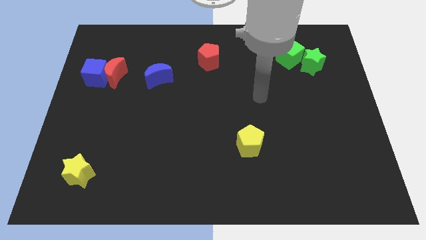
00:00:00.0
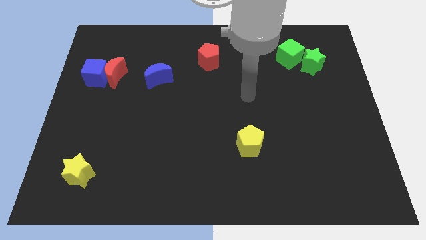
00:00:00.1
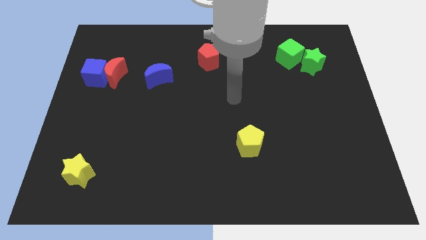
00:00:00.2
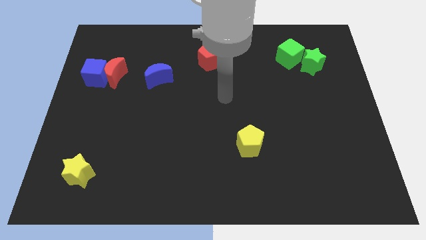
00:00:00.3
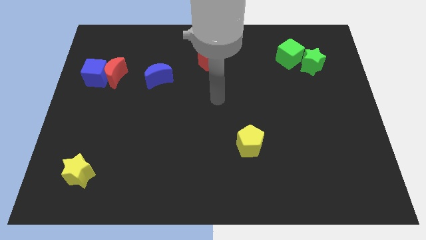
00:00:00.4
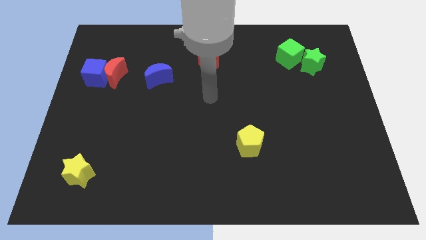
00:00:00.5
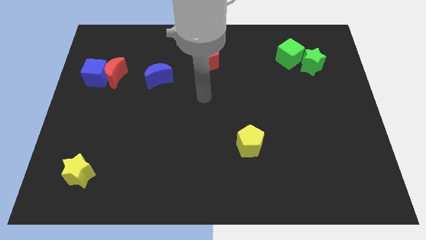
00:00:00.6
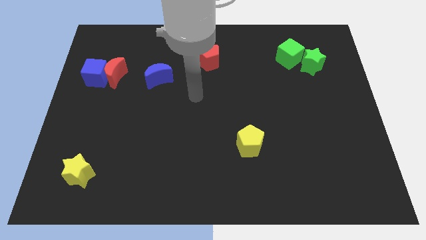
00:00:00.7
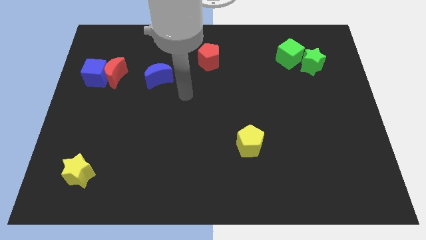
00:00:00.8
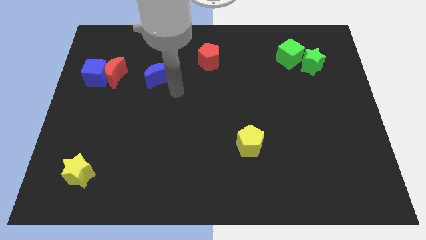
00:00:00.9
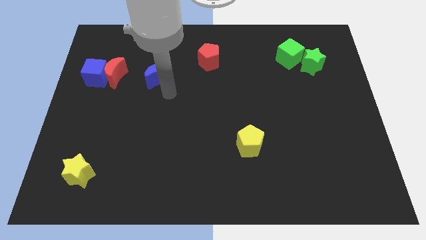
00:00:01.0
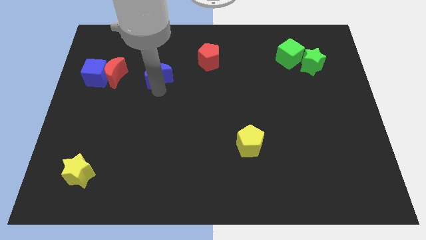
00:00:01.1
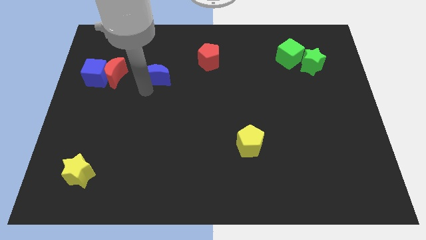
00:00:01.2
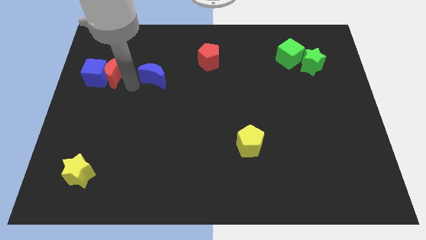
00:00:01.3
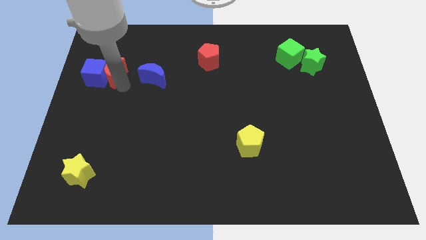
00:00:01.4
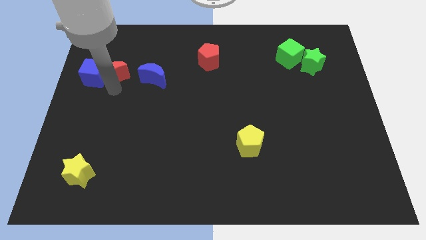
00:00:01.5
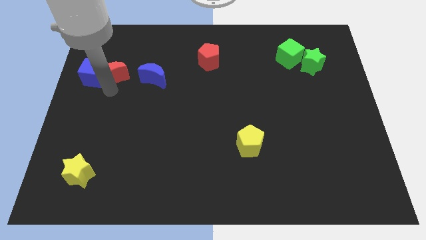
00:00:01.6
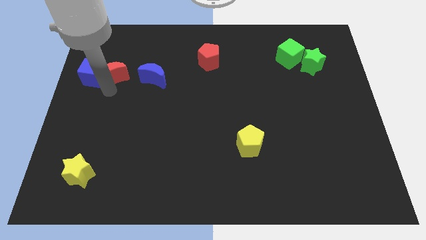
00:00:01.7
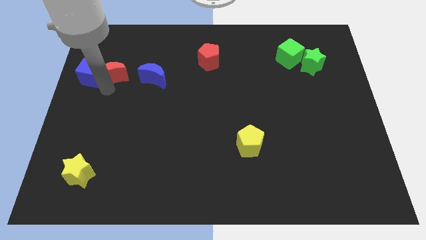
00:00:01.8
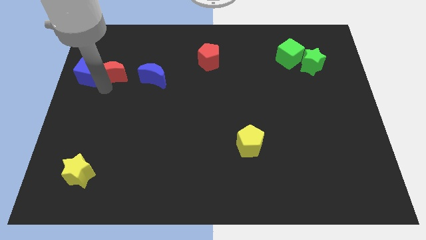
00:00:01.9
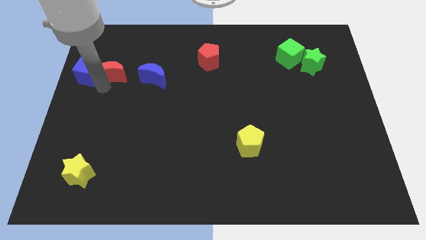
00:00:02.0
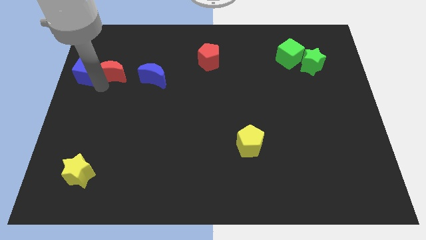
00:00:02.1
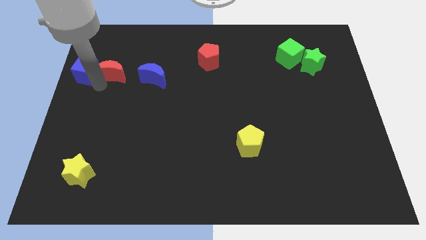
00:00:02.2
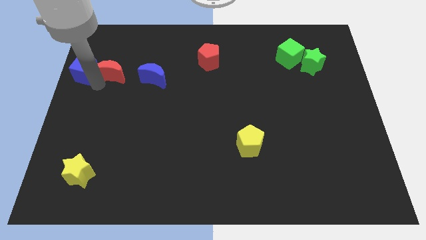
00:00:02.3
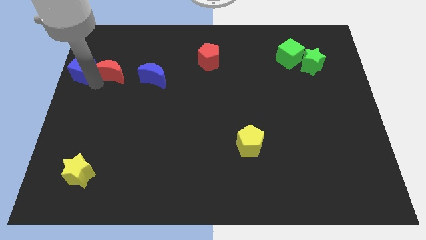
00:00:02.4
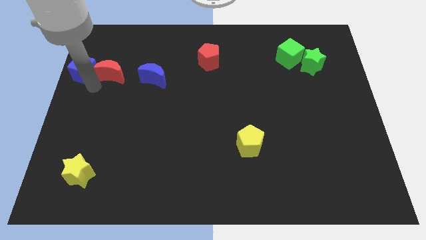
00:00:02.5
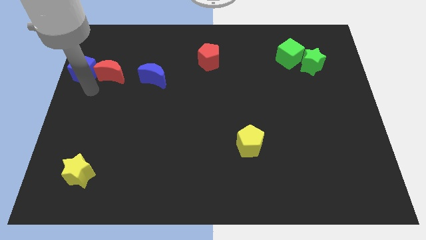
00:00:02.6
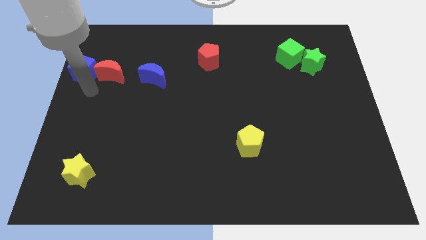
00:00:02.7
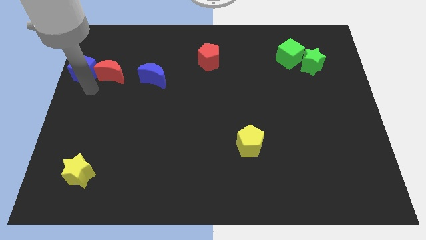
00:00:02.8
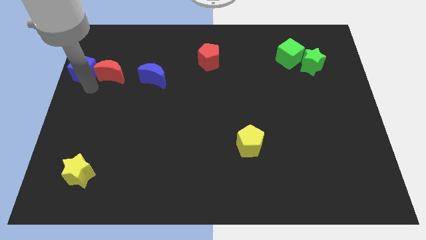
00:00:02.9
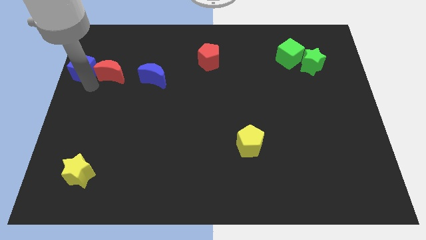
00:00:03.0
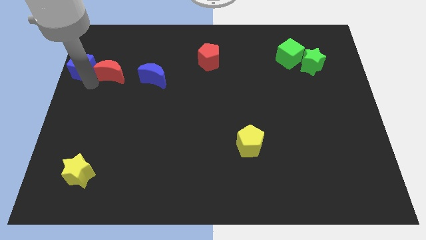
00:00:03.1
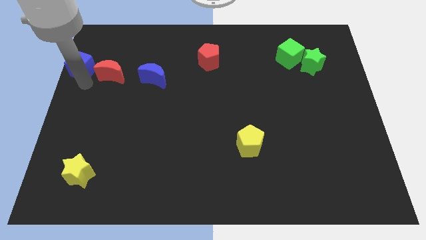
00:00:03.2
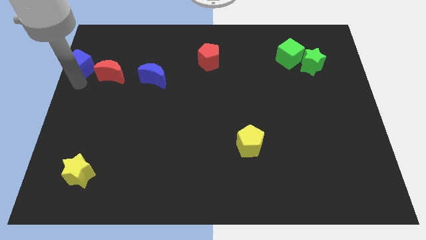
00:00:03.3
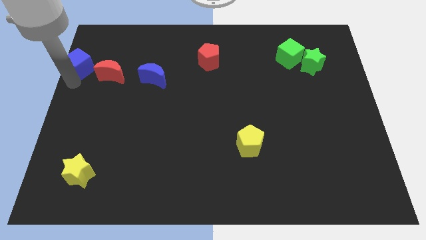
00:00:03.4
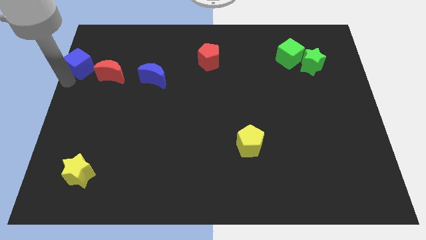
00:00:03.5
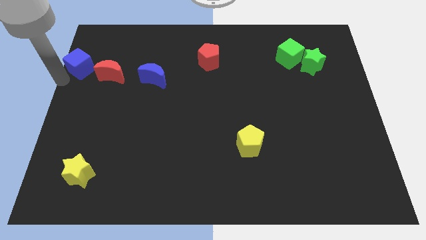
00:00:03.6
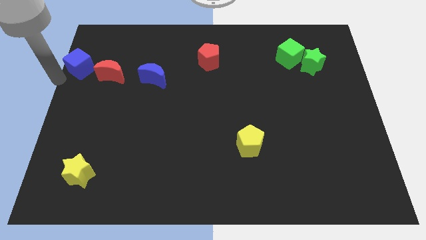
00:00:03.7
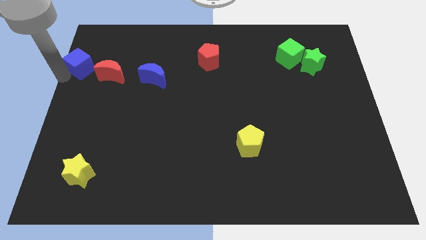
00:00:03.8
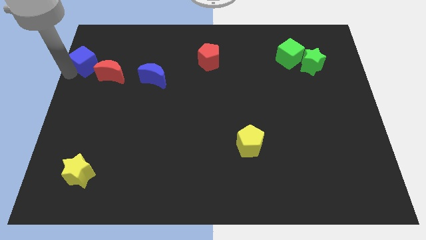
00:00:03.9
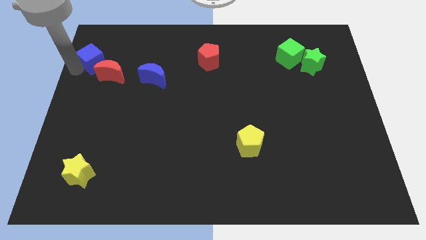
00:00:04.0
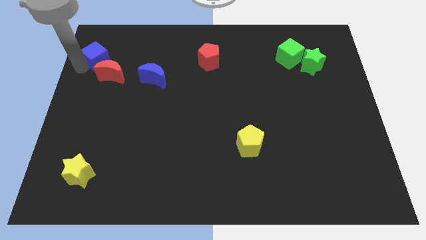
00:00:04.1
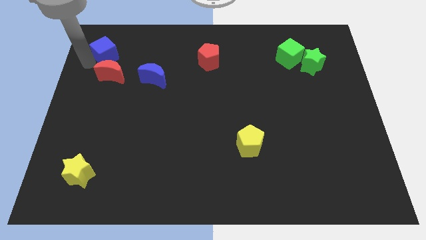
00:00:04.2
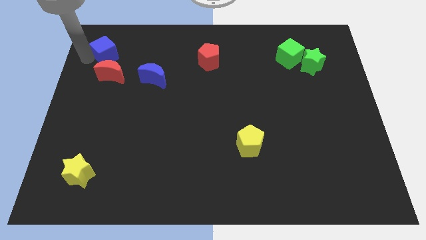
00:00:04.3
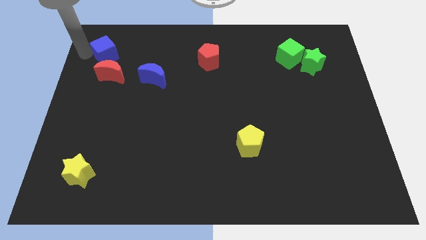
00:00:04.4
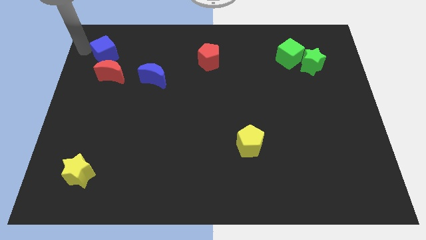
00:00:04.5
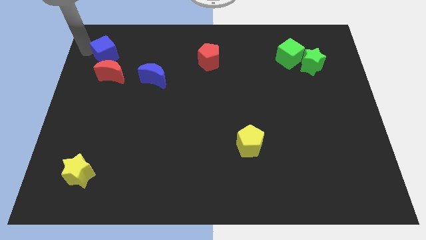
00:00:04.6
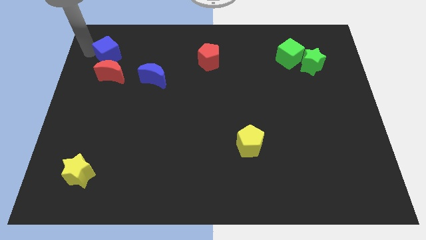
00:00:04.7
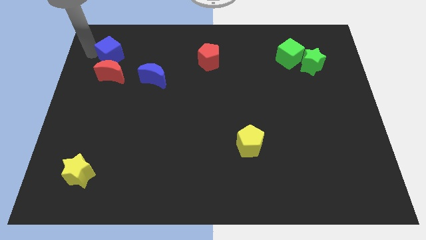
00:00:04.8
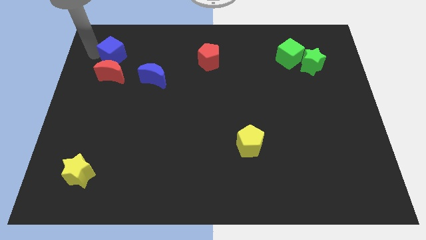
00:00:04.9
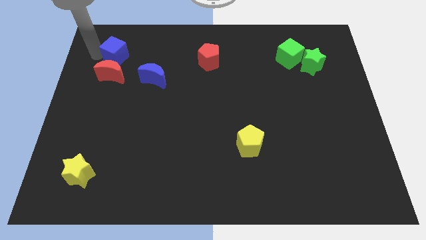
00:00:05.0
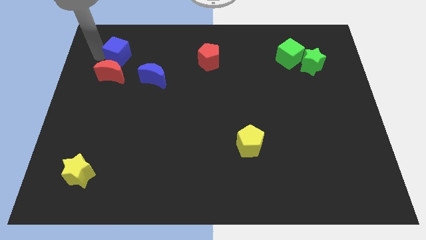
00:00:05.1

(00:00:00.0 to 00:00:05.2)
put the blue cube diagonally up and to the right of the red moon

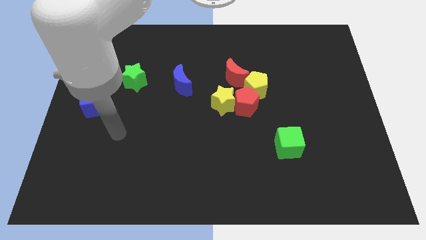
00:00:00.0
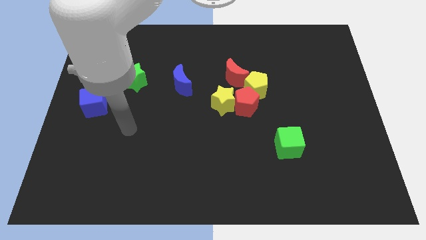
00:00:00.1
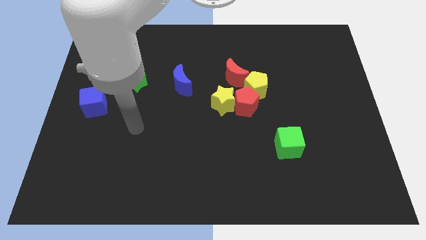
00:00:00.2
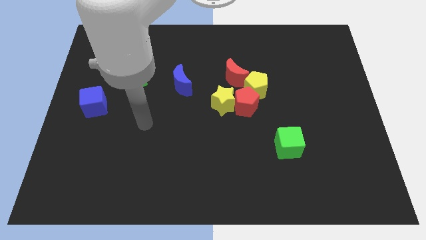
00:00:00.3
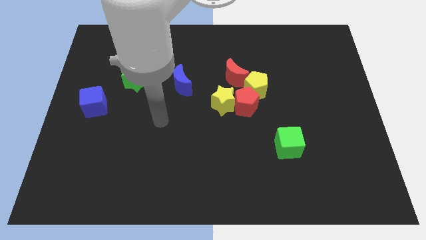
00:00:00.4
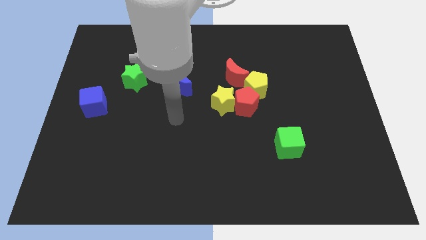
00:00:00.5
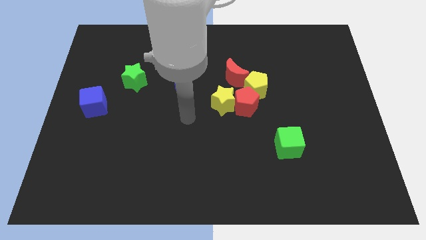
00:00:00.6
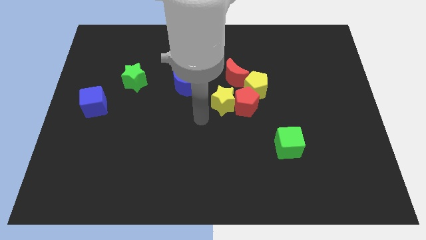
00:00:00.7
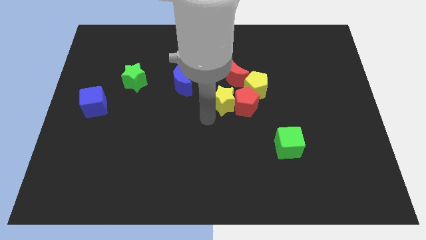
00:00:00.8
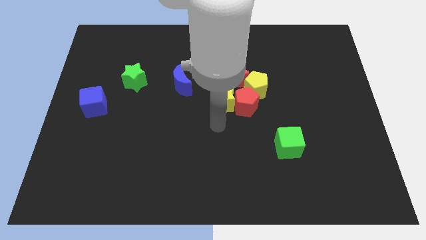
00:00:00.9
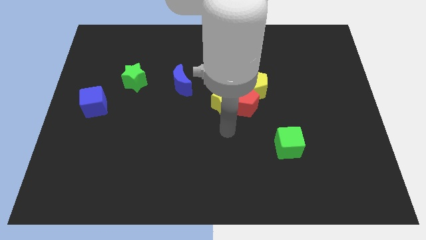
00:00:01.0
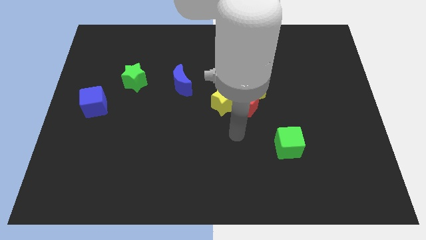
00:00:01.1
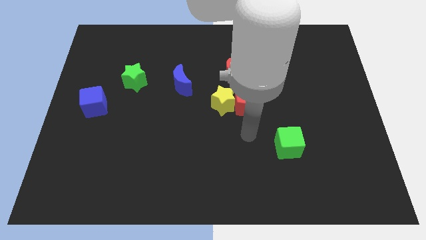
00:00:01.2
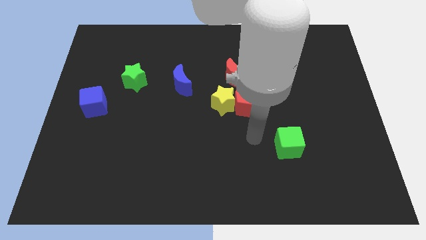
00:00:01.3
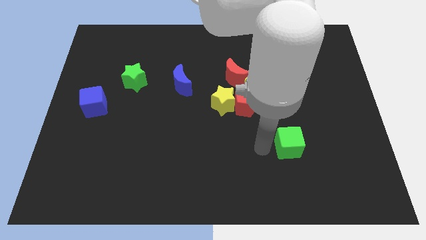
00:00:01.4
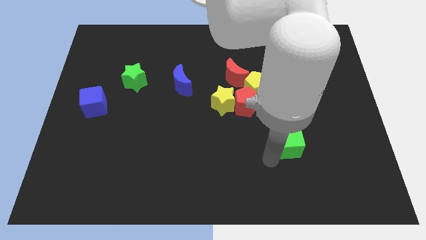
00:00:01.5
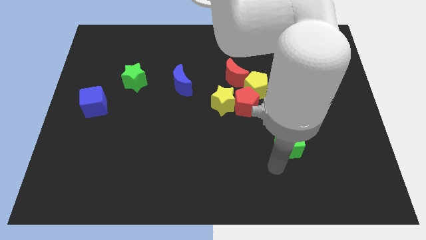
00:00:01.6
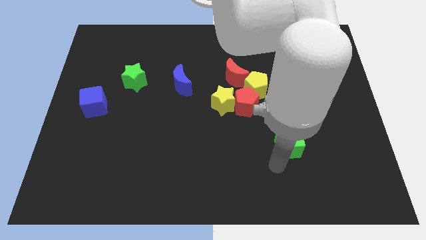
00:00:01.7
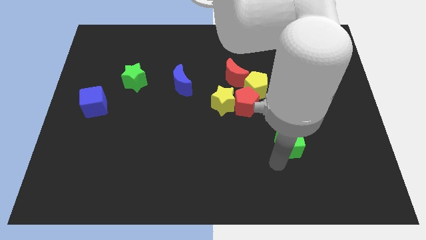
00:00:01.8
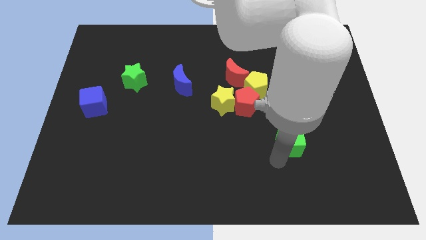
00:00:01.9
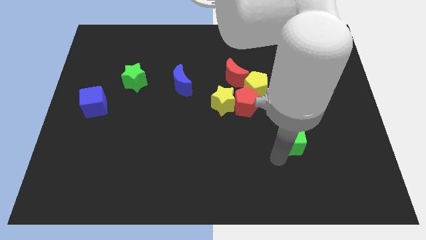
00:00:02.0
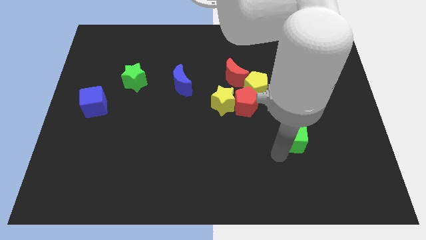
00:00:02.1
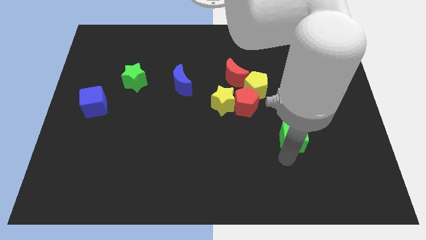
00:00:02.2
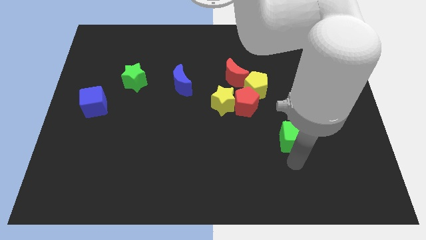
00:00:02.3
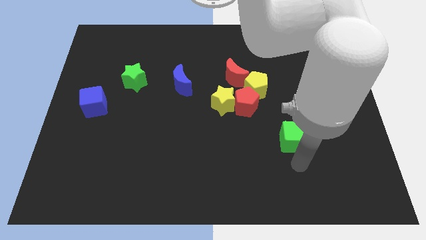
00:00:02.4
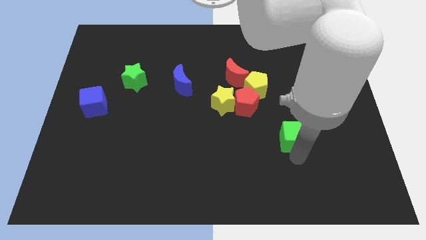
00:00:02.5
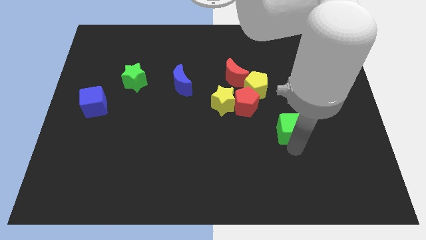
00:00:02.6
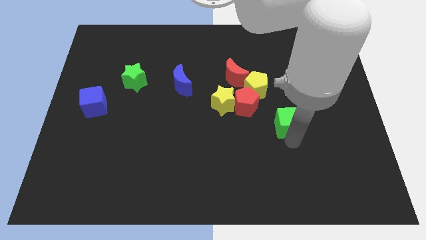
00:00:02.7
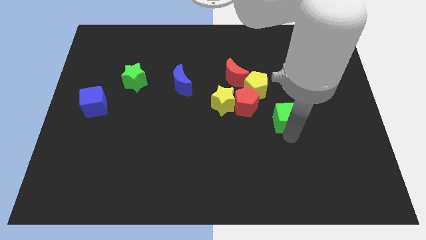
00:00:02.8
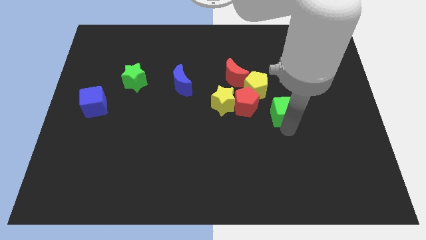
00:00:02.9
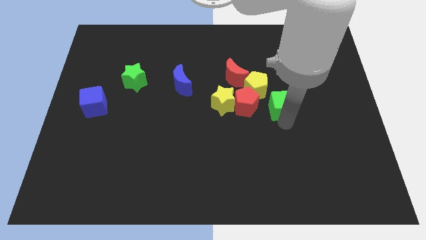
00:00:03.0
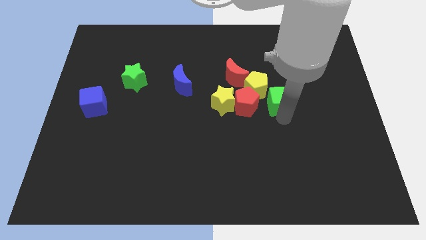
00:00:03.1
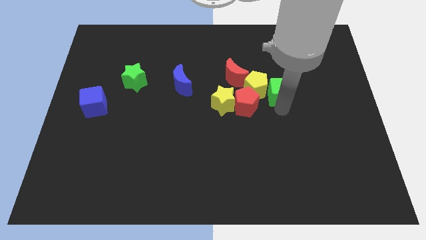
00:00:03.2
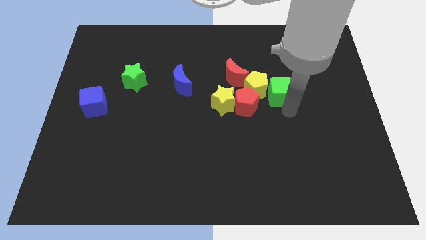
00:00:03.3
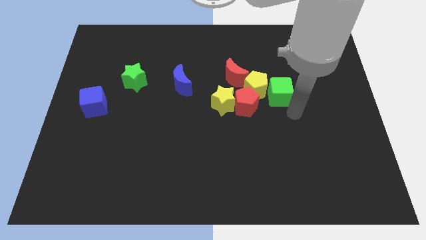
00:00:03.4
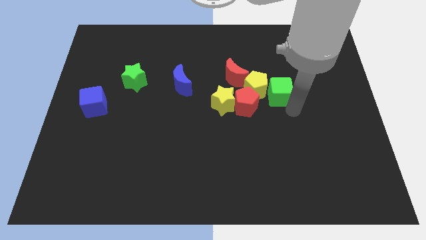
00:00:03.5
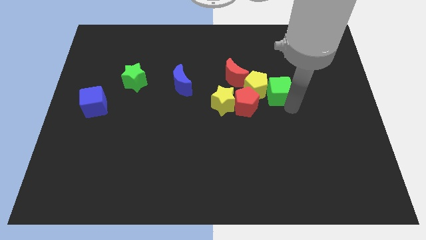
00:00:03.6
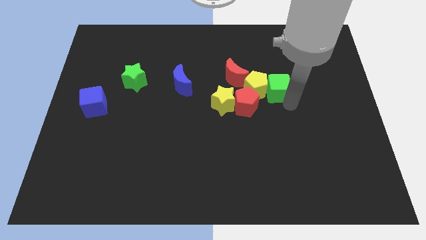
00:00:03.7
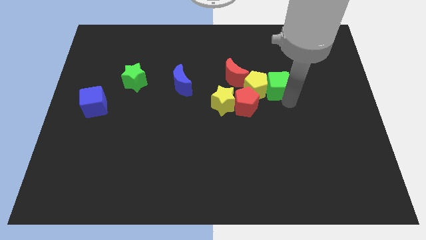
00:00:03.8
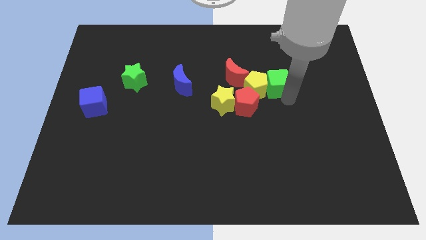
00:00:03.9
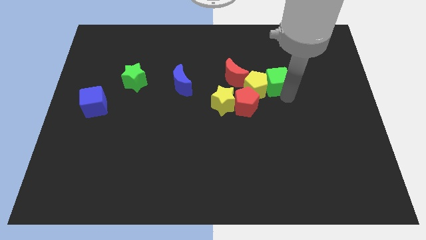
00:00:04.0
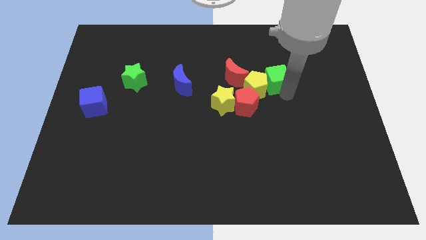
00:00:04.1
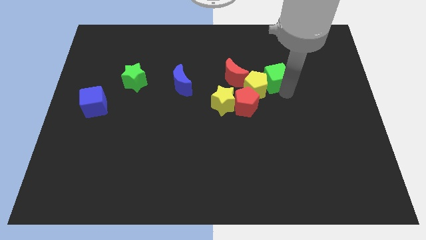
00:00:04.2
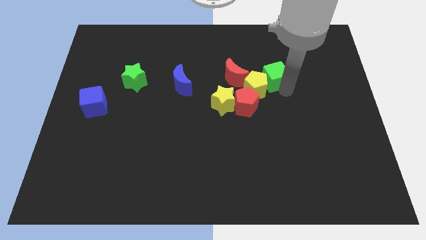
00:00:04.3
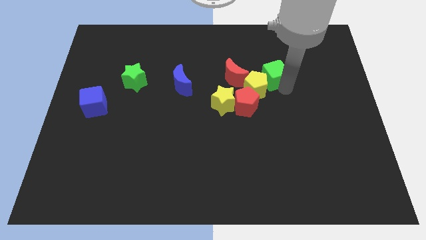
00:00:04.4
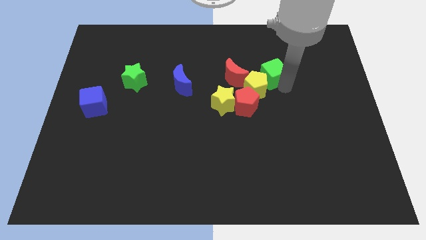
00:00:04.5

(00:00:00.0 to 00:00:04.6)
put the green cube above the yellow pentagon
